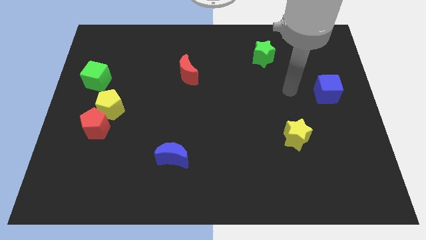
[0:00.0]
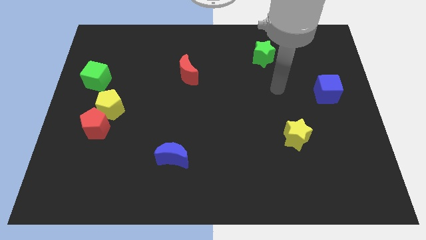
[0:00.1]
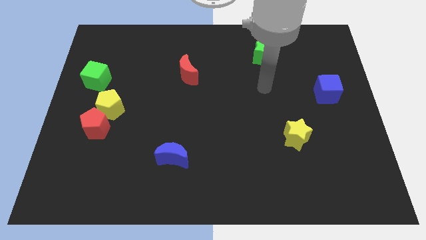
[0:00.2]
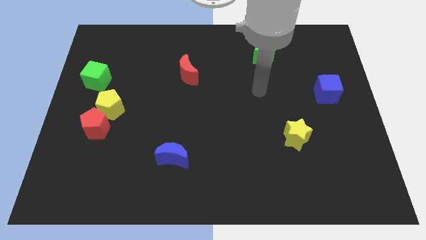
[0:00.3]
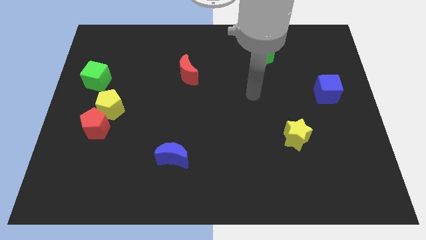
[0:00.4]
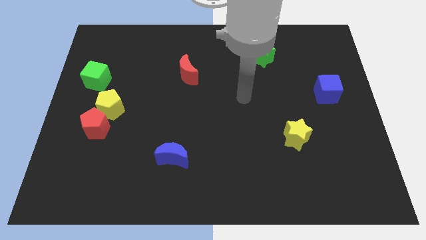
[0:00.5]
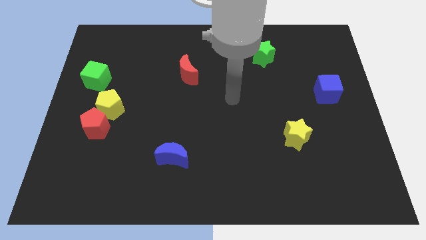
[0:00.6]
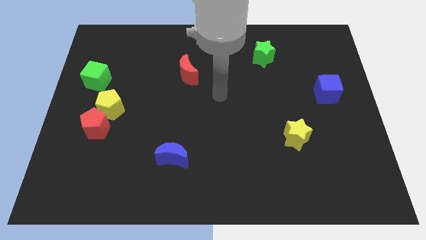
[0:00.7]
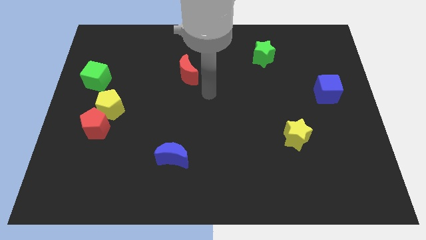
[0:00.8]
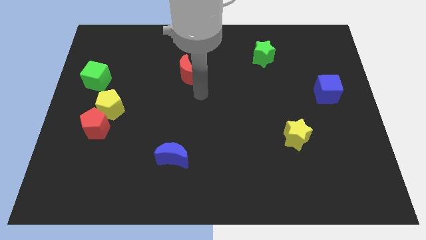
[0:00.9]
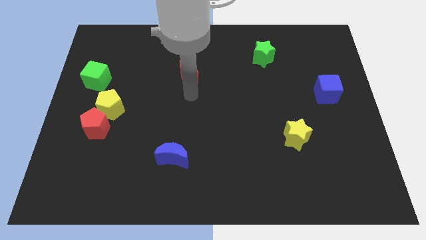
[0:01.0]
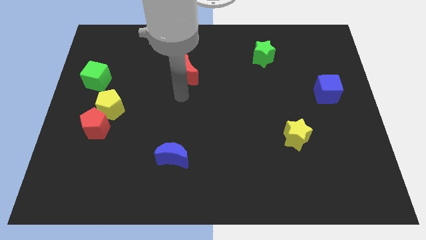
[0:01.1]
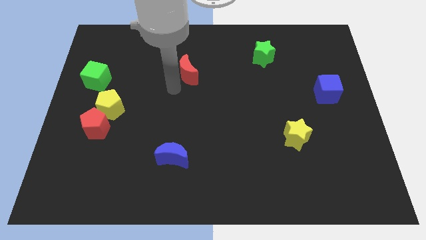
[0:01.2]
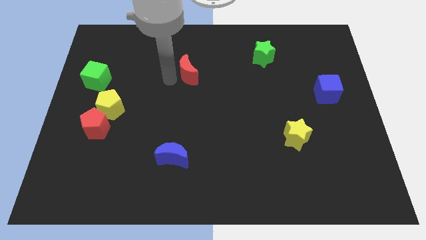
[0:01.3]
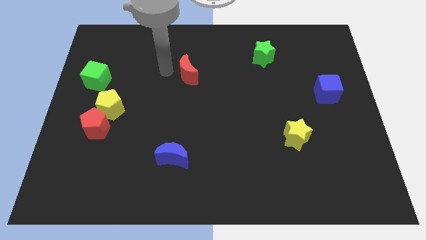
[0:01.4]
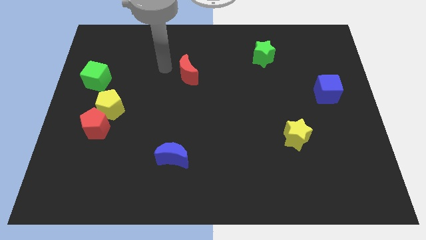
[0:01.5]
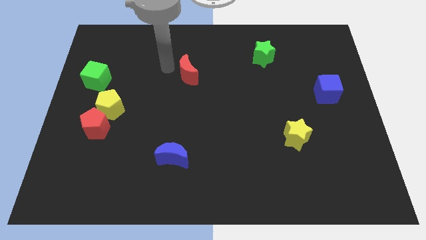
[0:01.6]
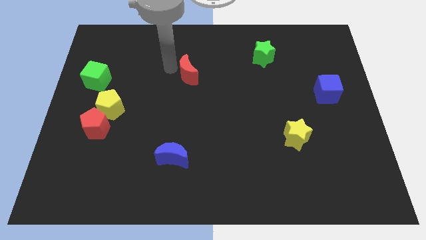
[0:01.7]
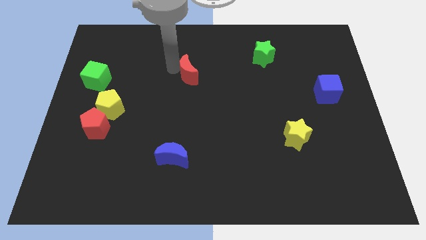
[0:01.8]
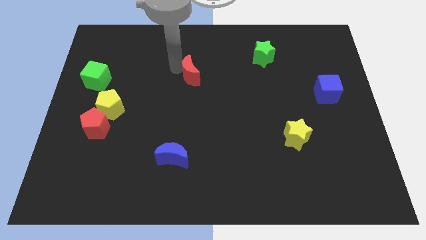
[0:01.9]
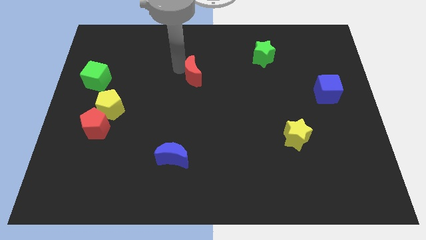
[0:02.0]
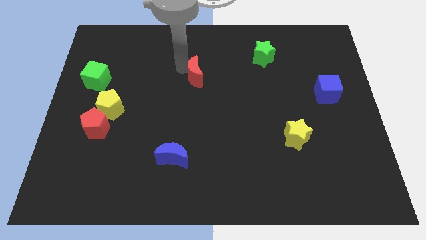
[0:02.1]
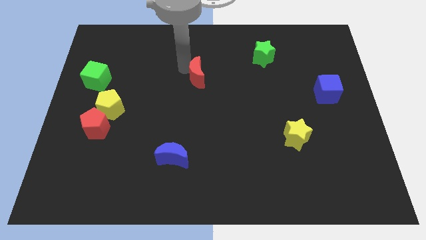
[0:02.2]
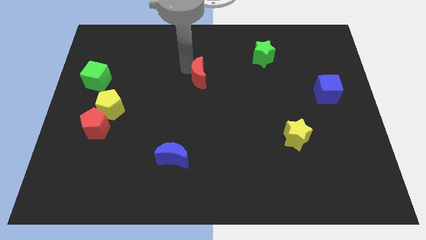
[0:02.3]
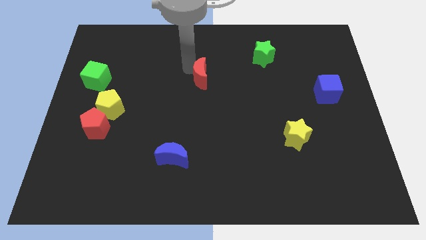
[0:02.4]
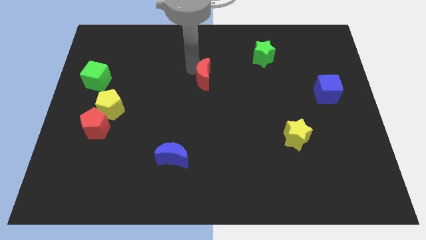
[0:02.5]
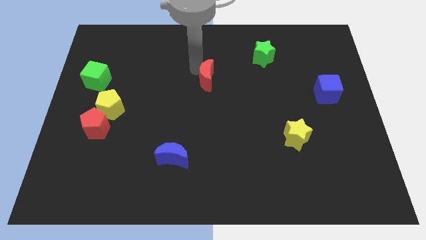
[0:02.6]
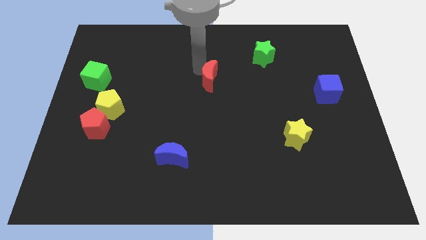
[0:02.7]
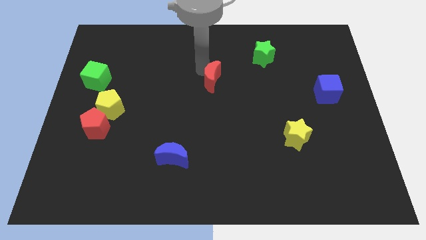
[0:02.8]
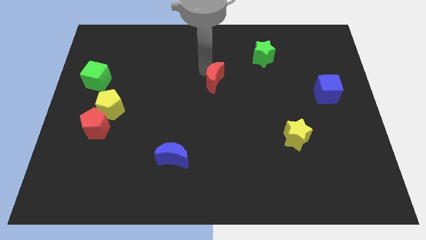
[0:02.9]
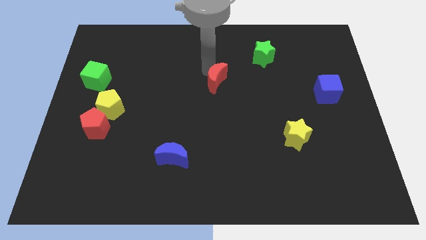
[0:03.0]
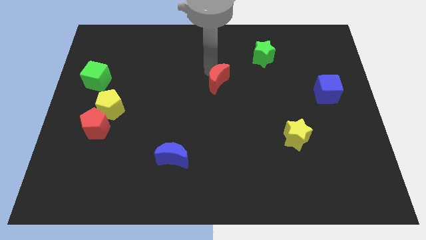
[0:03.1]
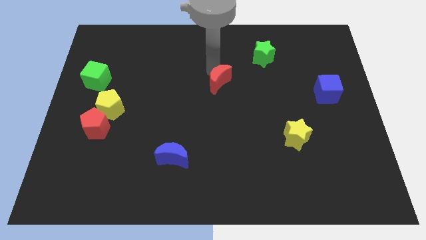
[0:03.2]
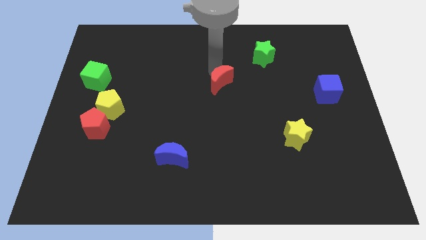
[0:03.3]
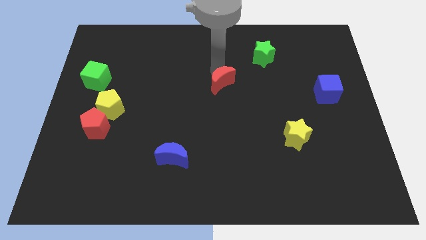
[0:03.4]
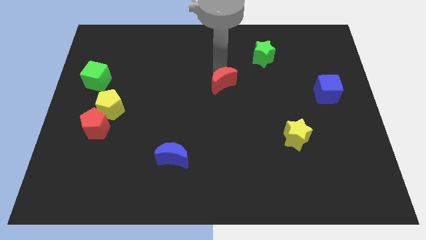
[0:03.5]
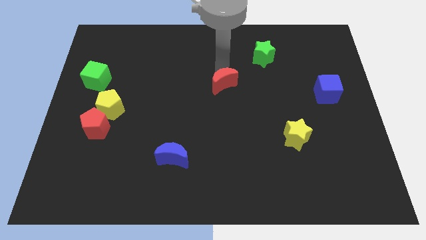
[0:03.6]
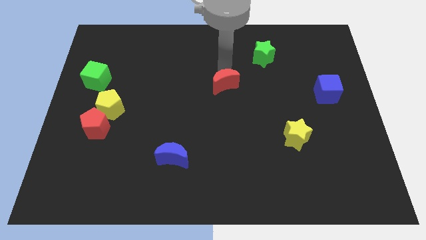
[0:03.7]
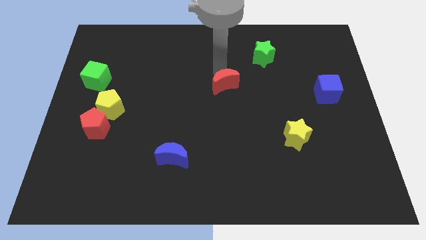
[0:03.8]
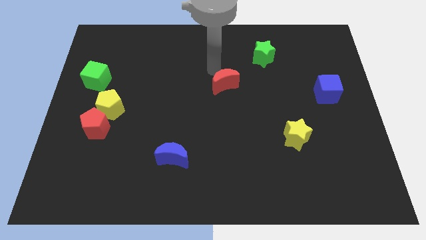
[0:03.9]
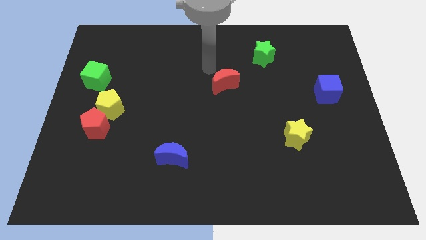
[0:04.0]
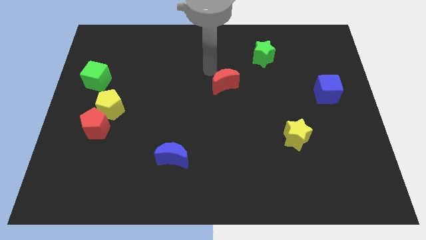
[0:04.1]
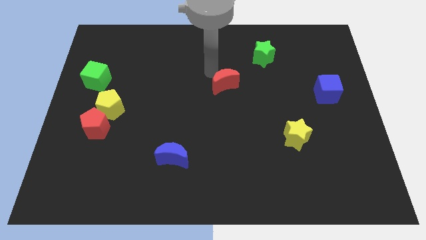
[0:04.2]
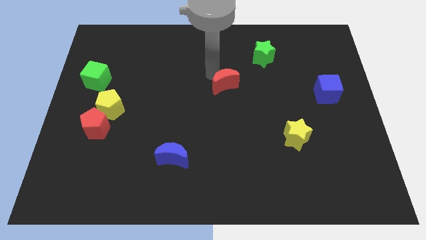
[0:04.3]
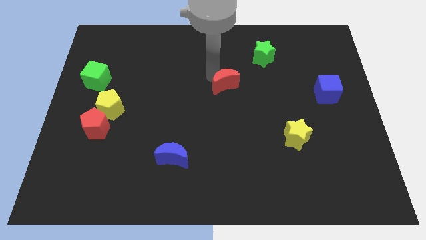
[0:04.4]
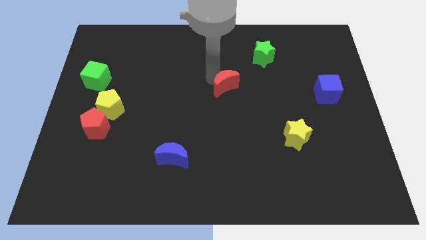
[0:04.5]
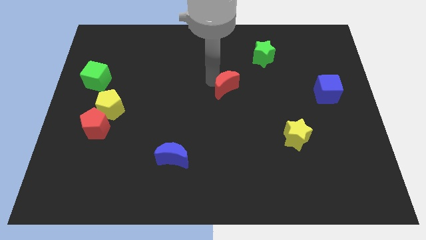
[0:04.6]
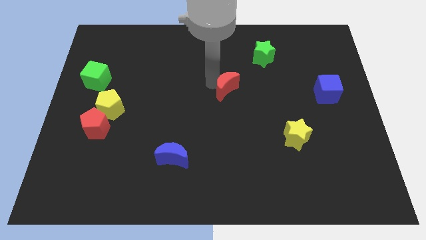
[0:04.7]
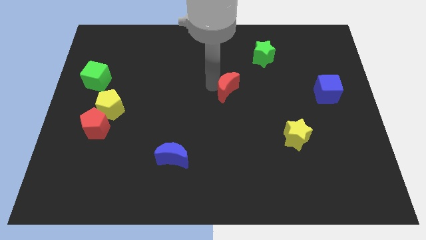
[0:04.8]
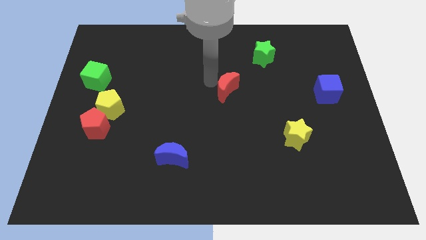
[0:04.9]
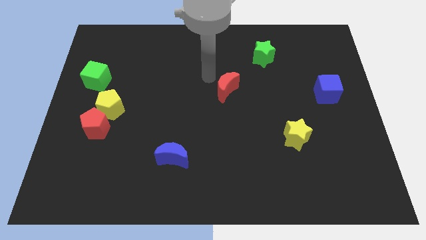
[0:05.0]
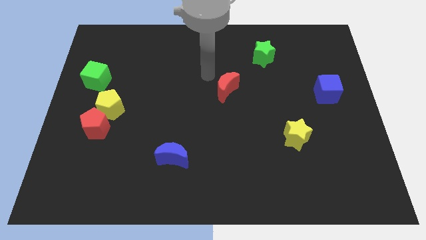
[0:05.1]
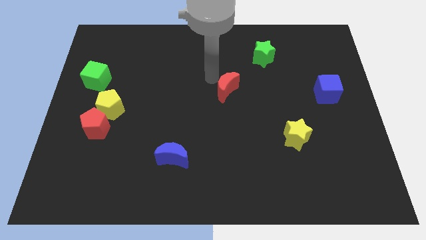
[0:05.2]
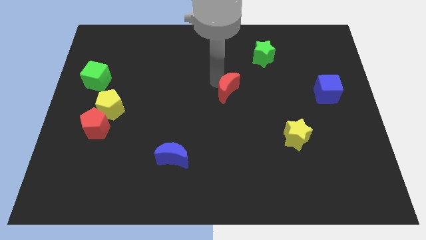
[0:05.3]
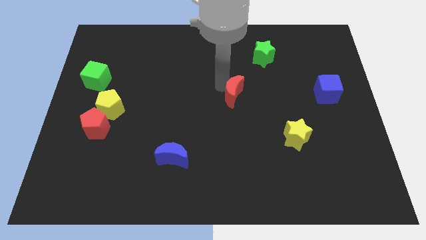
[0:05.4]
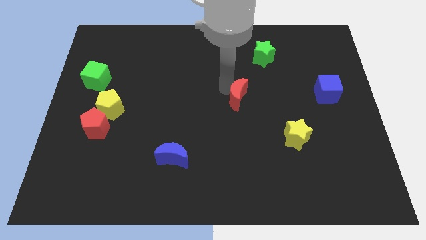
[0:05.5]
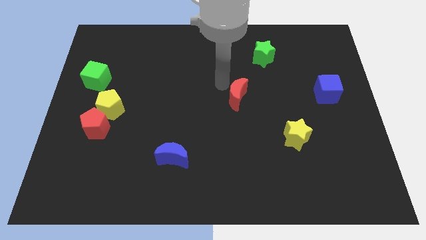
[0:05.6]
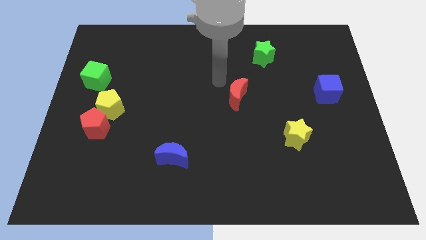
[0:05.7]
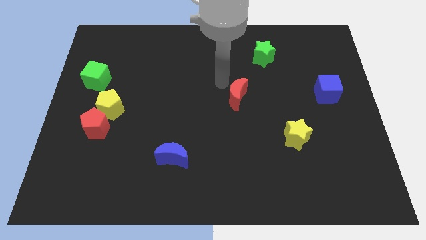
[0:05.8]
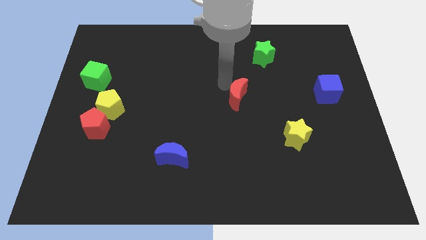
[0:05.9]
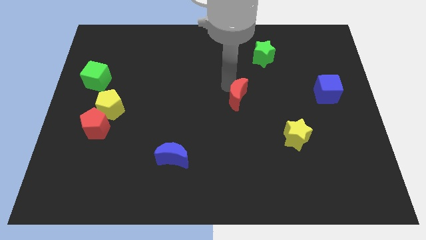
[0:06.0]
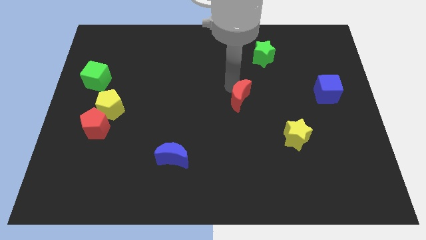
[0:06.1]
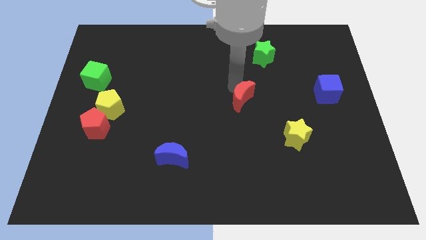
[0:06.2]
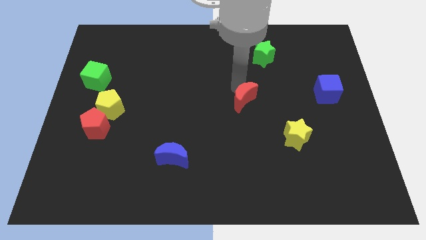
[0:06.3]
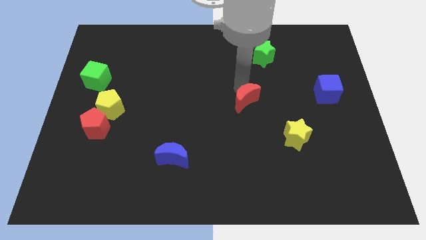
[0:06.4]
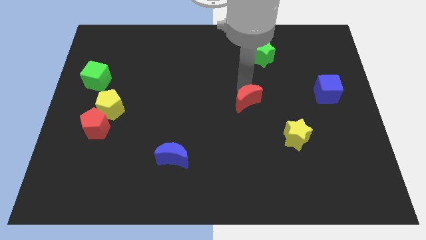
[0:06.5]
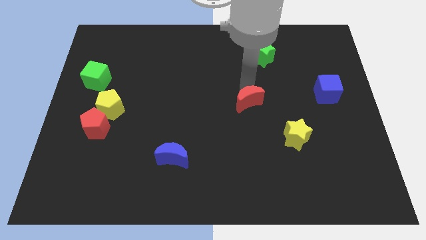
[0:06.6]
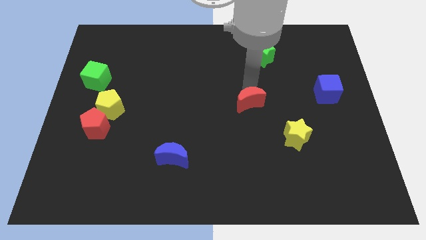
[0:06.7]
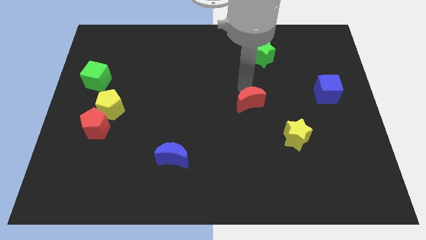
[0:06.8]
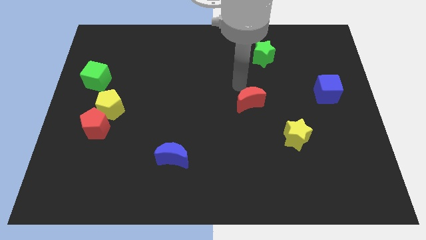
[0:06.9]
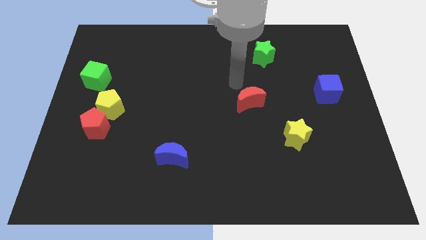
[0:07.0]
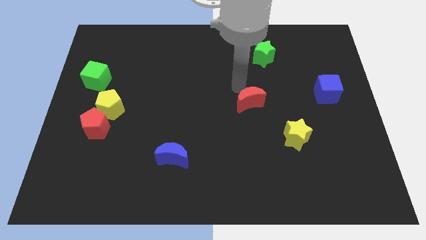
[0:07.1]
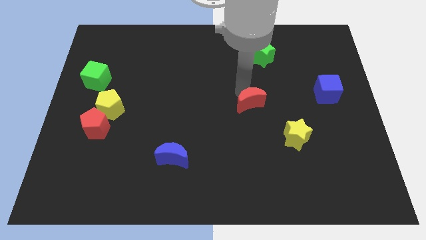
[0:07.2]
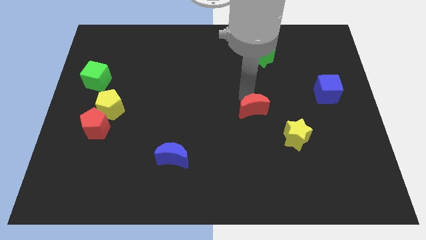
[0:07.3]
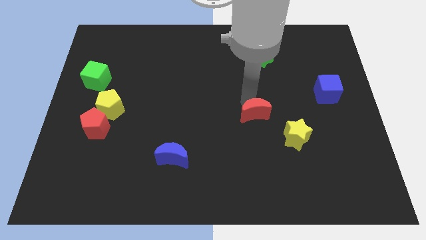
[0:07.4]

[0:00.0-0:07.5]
slide the red moon downwards and to the right diagonally

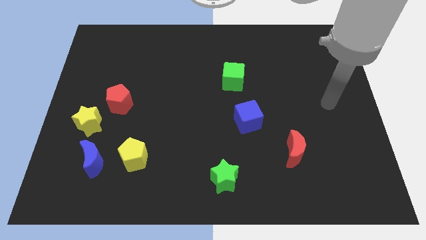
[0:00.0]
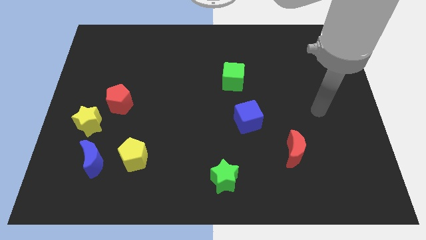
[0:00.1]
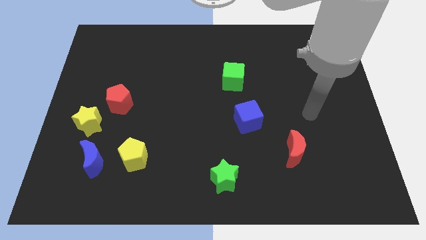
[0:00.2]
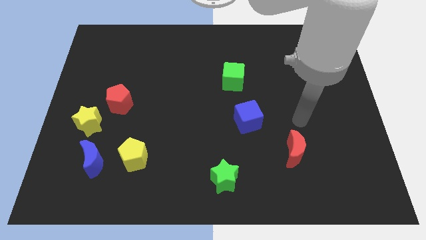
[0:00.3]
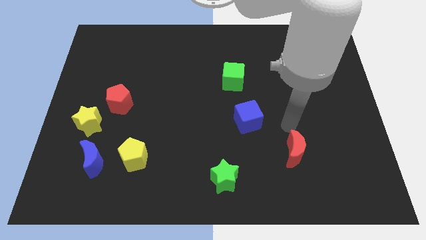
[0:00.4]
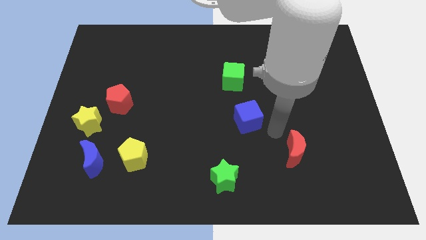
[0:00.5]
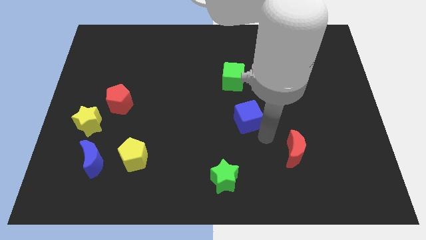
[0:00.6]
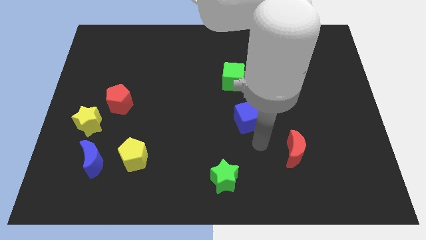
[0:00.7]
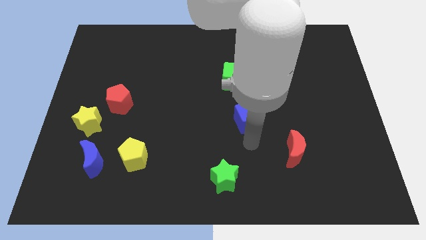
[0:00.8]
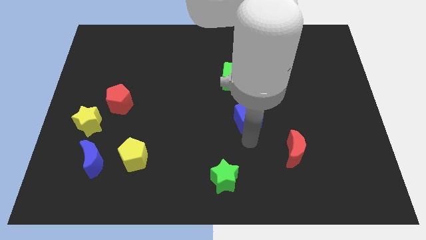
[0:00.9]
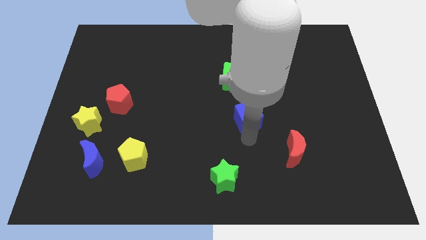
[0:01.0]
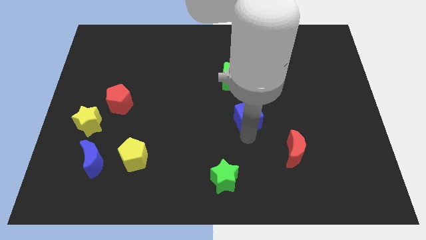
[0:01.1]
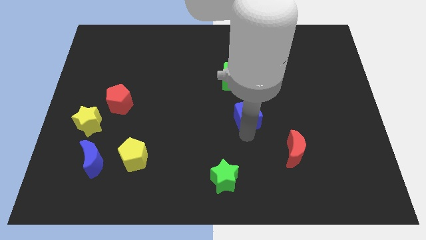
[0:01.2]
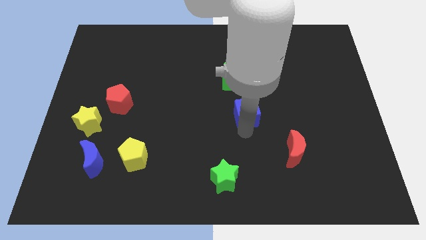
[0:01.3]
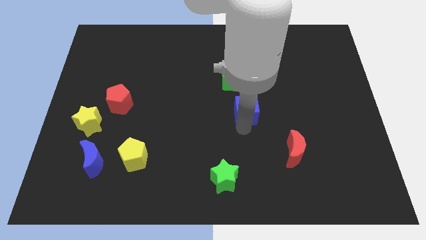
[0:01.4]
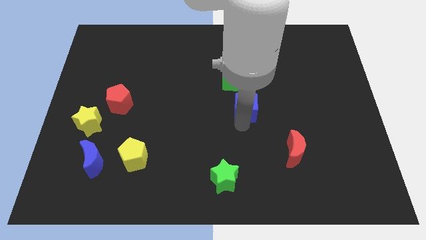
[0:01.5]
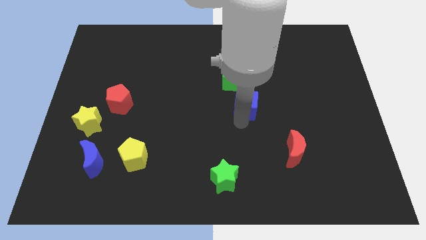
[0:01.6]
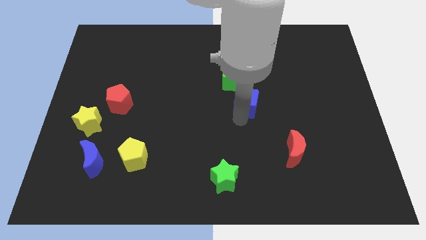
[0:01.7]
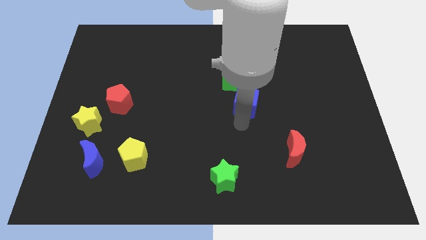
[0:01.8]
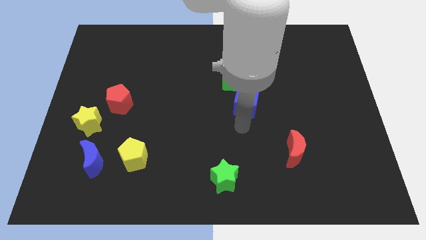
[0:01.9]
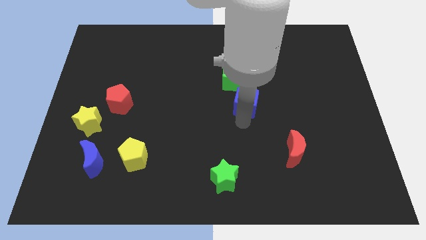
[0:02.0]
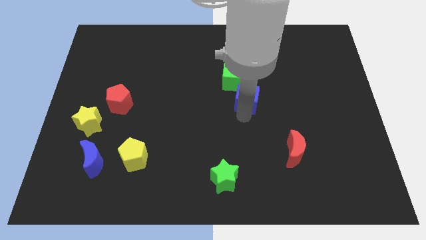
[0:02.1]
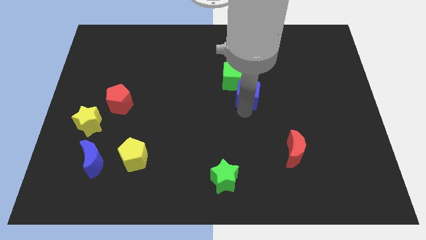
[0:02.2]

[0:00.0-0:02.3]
slide the blue cube a little bit upwards
